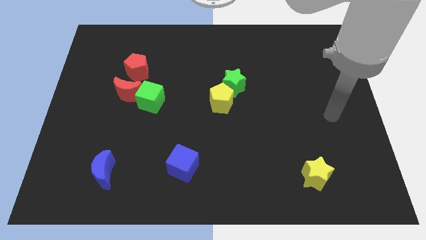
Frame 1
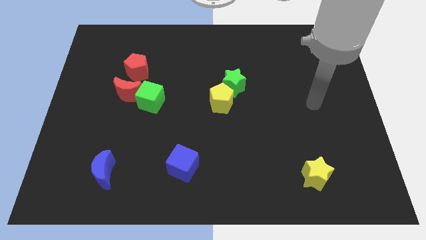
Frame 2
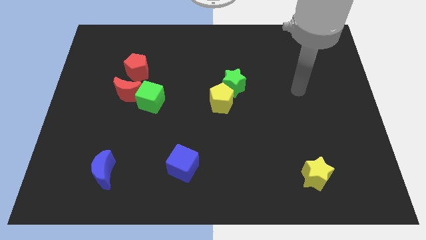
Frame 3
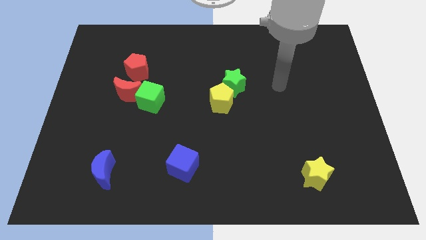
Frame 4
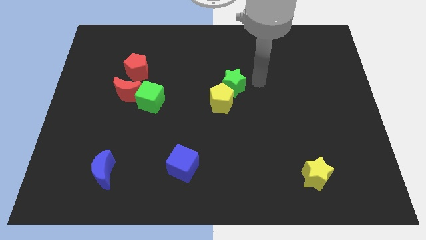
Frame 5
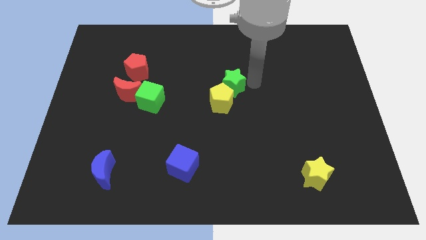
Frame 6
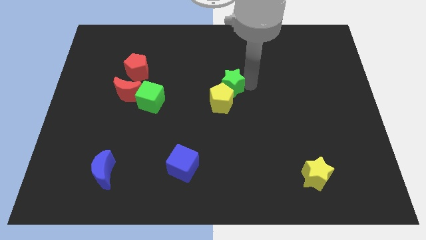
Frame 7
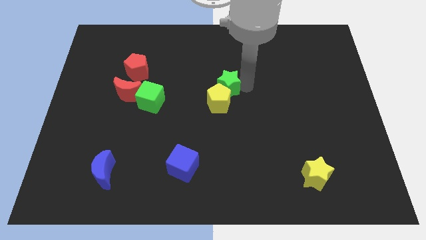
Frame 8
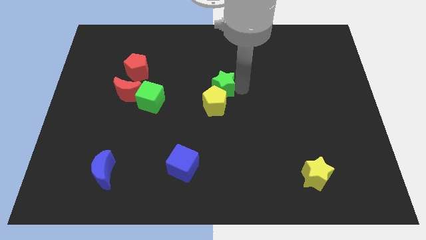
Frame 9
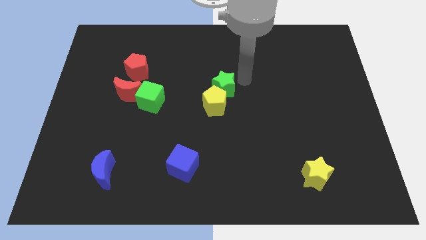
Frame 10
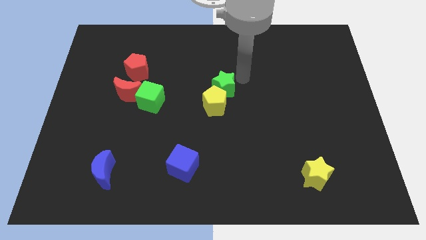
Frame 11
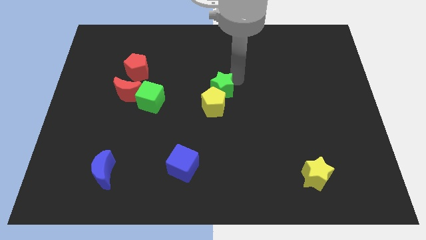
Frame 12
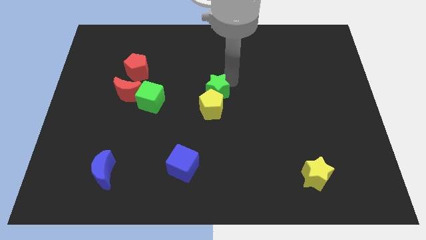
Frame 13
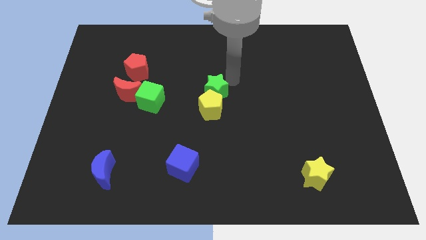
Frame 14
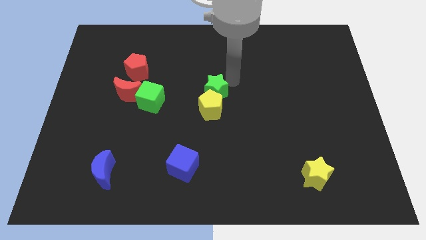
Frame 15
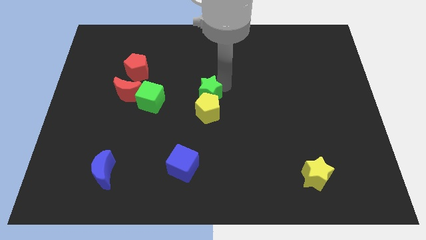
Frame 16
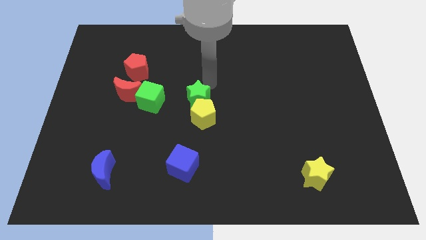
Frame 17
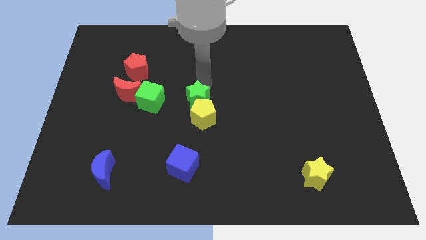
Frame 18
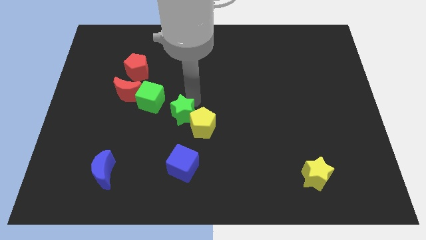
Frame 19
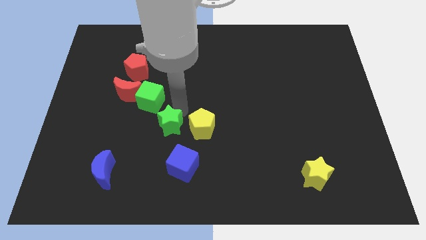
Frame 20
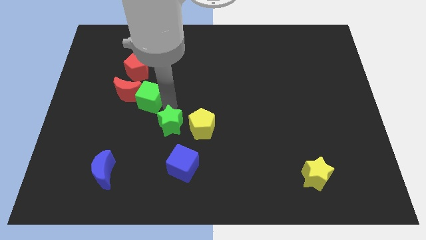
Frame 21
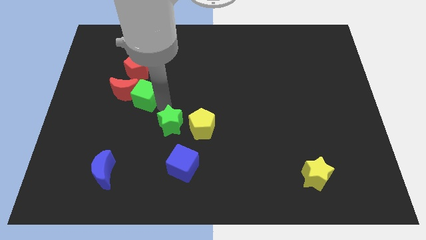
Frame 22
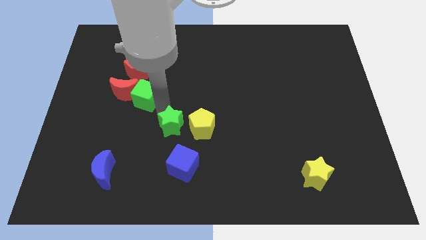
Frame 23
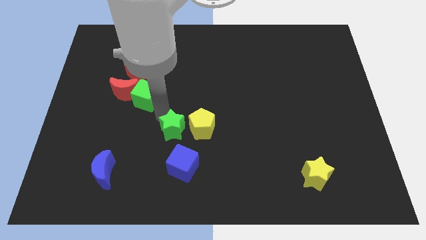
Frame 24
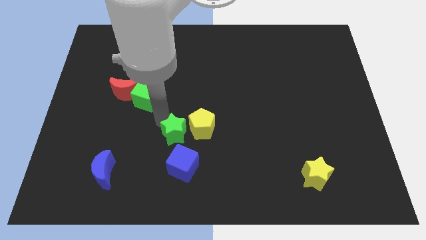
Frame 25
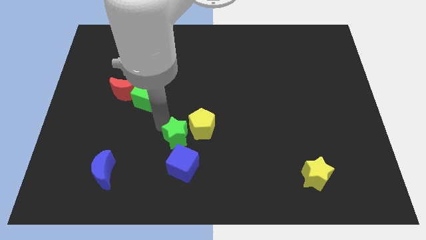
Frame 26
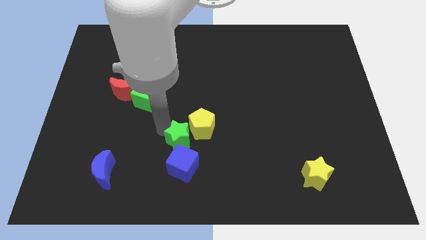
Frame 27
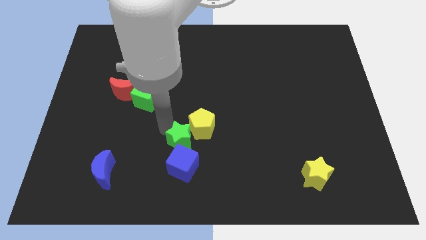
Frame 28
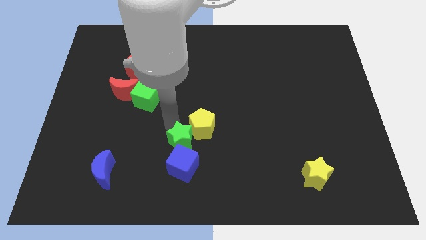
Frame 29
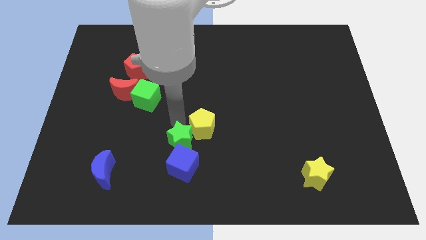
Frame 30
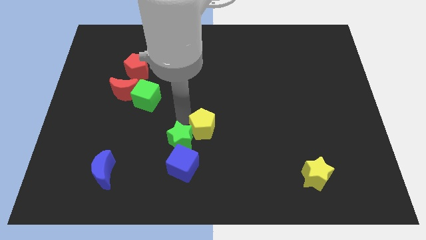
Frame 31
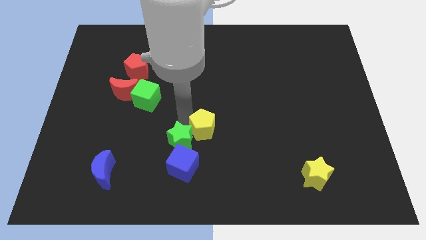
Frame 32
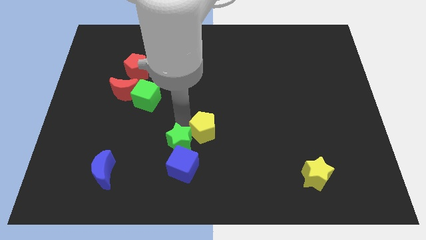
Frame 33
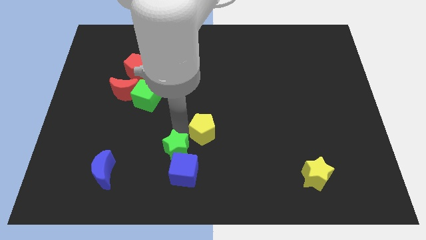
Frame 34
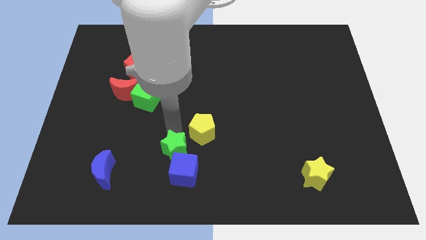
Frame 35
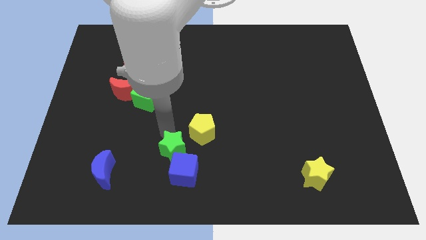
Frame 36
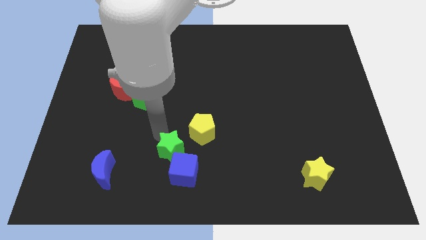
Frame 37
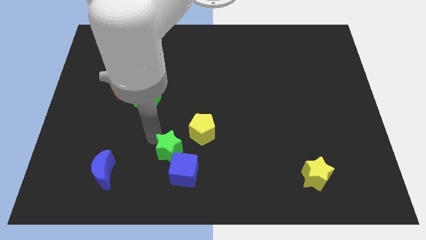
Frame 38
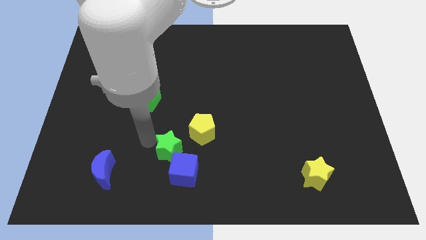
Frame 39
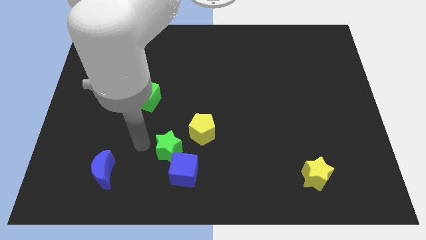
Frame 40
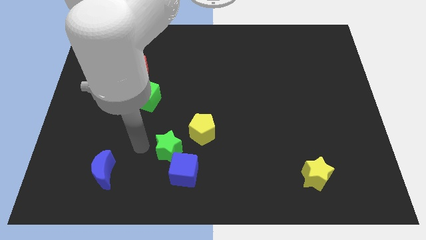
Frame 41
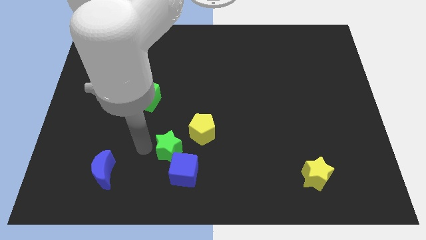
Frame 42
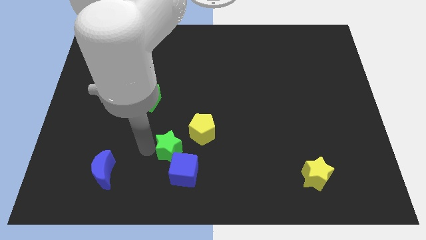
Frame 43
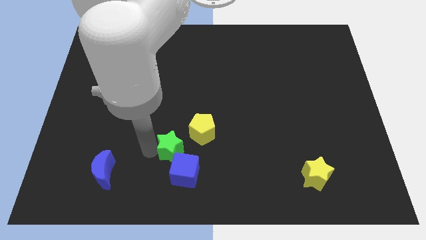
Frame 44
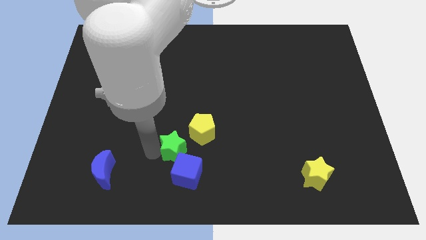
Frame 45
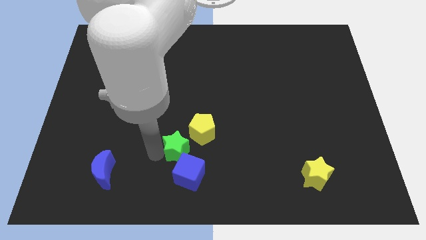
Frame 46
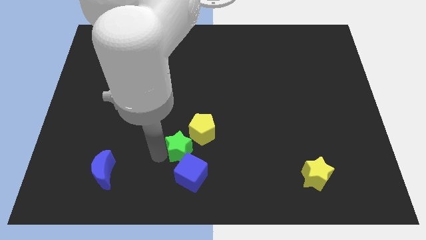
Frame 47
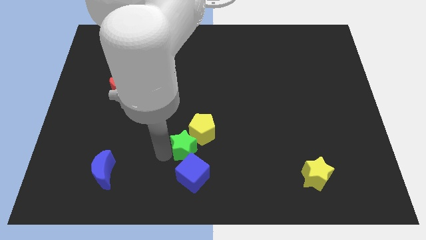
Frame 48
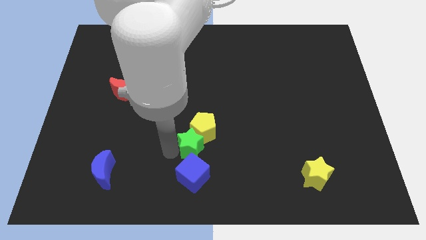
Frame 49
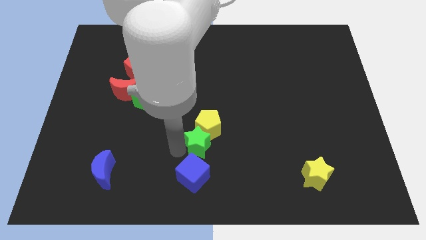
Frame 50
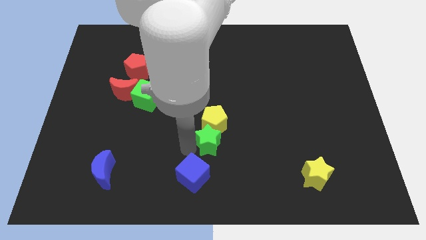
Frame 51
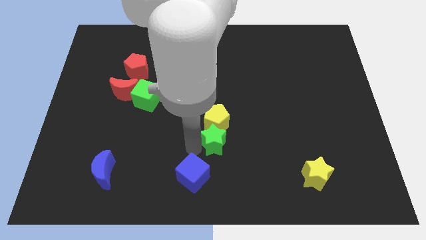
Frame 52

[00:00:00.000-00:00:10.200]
move the green star diagonally down and to the left of the yellow pentagon

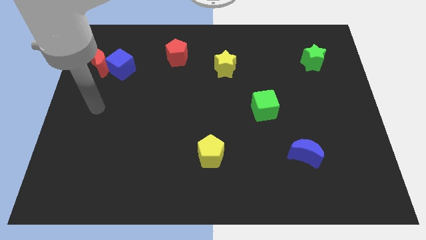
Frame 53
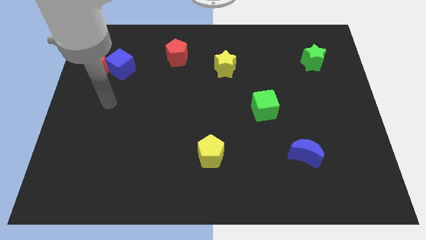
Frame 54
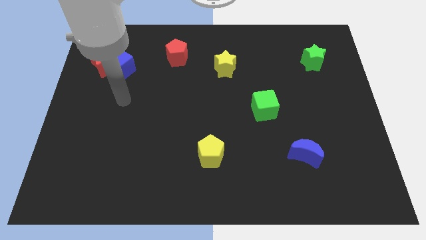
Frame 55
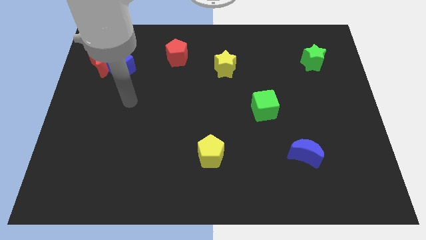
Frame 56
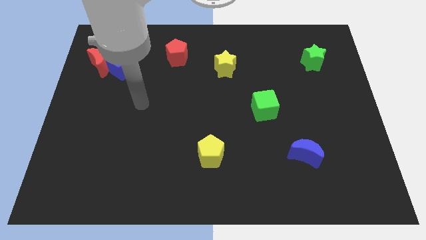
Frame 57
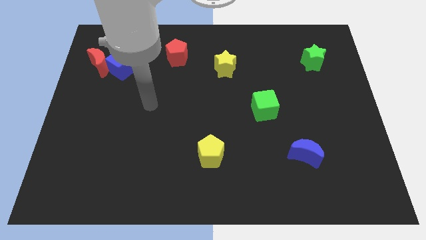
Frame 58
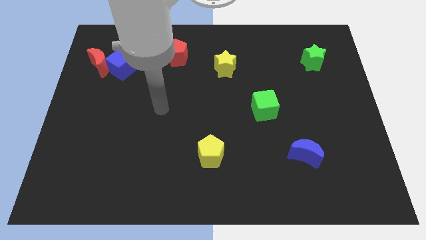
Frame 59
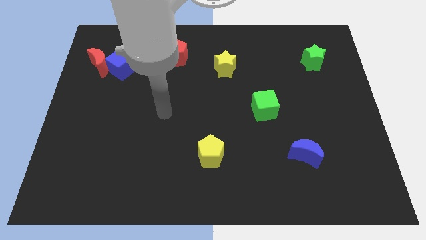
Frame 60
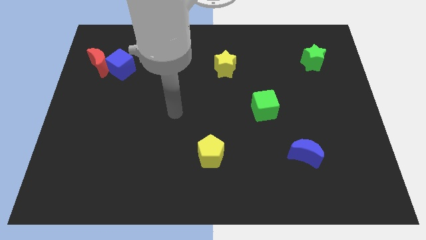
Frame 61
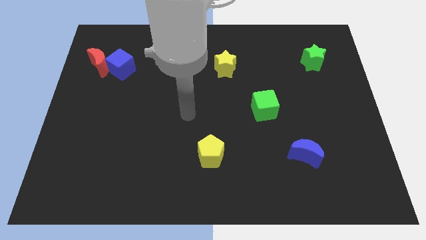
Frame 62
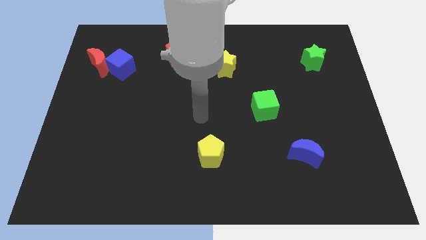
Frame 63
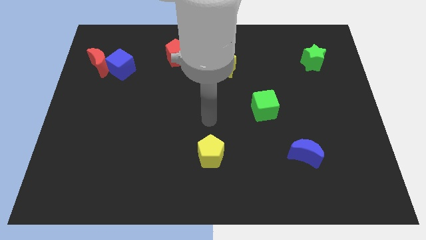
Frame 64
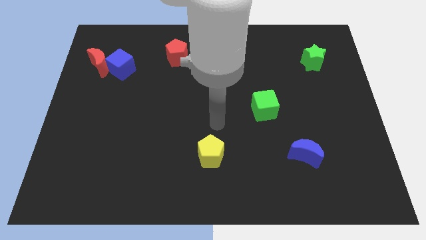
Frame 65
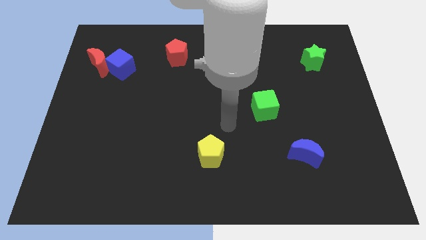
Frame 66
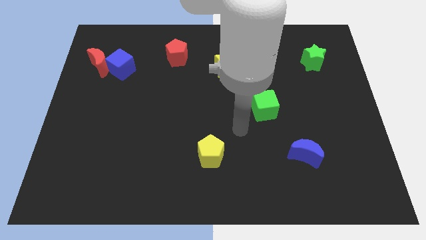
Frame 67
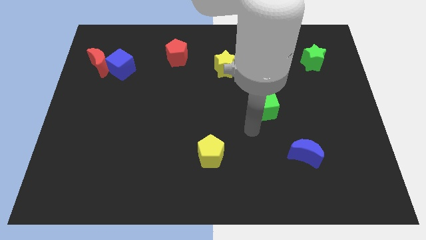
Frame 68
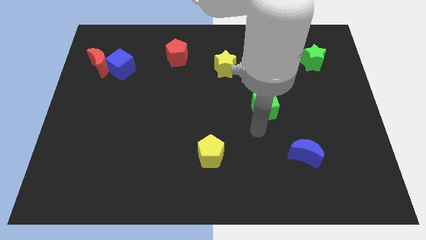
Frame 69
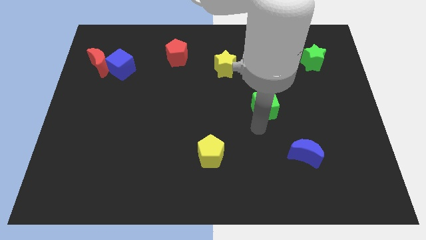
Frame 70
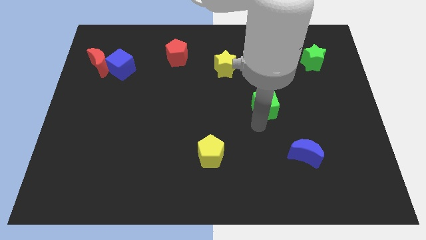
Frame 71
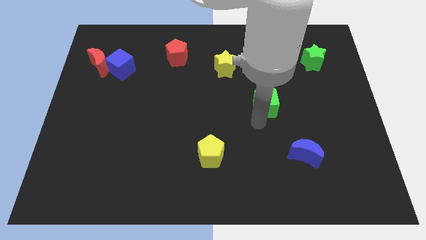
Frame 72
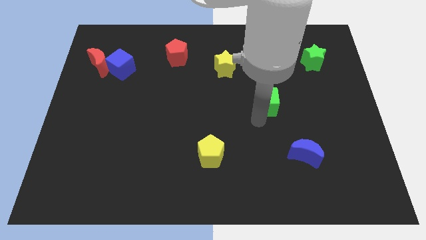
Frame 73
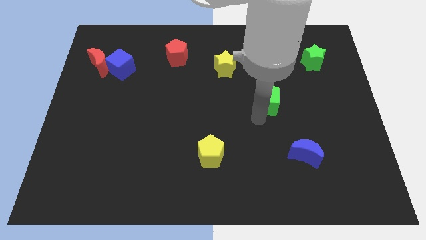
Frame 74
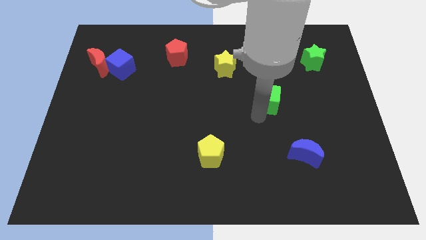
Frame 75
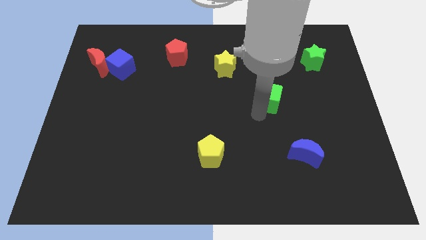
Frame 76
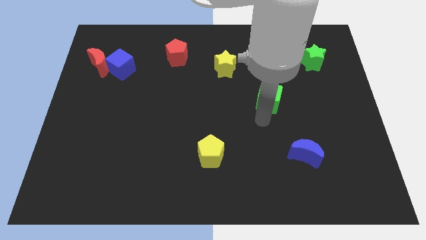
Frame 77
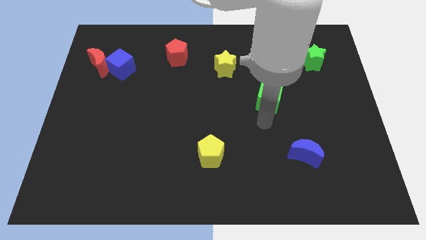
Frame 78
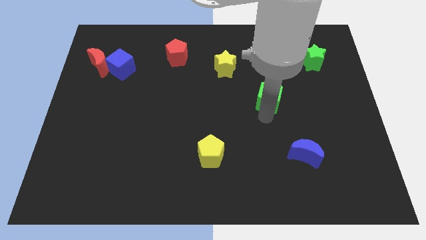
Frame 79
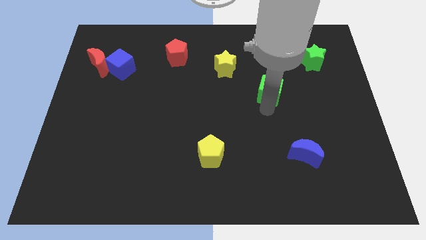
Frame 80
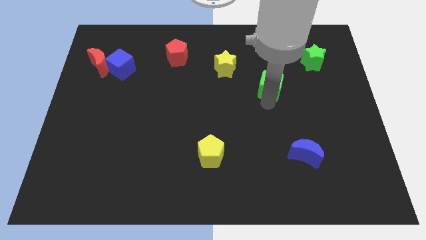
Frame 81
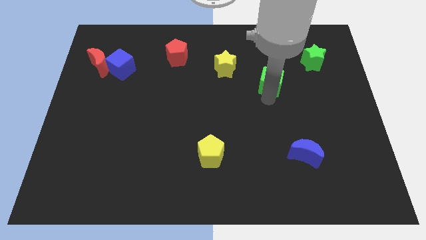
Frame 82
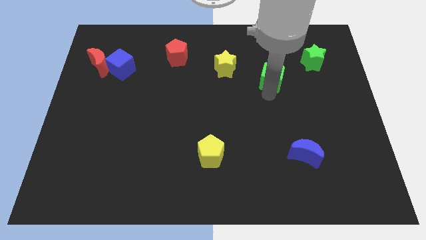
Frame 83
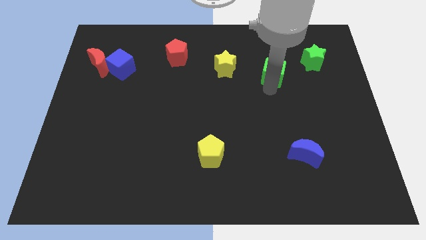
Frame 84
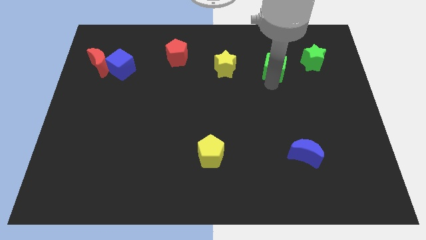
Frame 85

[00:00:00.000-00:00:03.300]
put the green cube to the left of the green star
